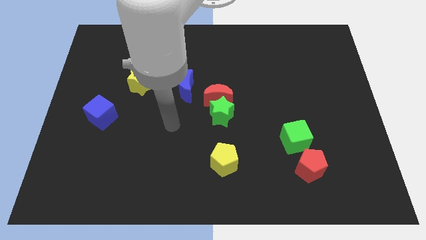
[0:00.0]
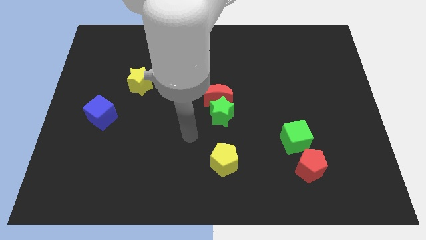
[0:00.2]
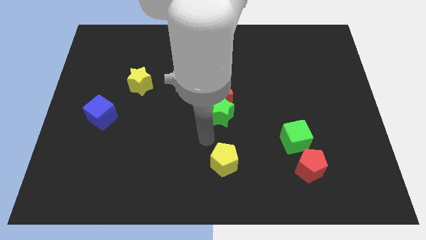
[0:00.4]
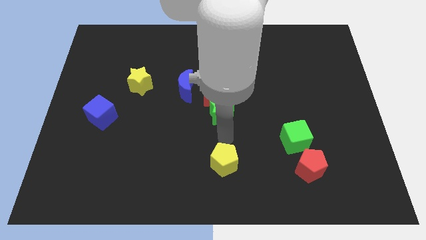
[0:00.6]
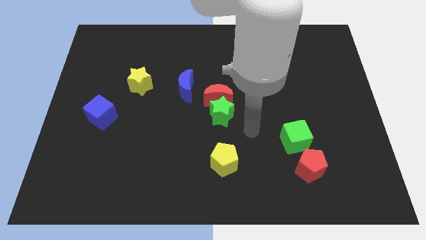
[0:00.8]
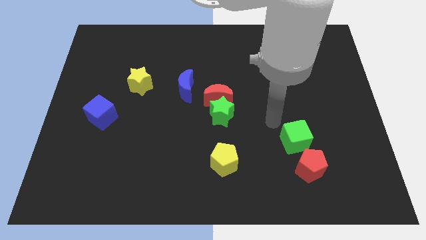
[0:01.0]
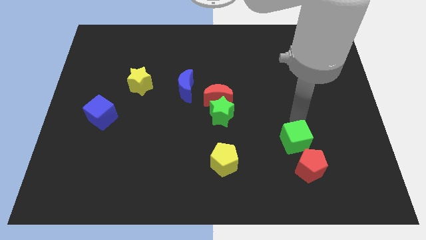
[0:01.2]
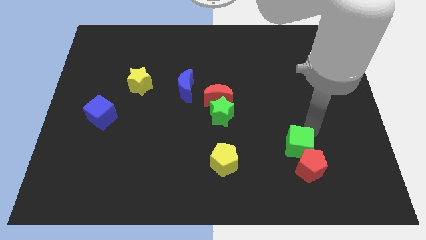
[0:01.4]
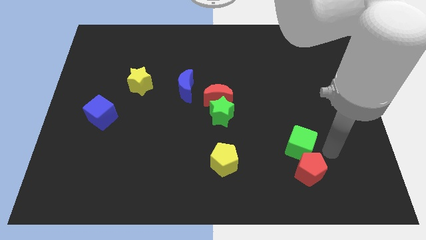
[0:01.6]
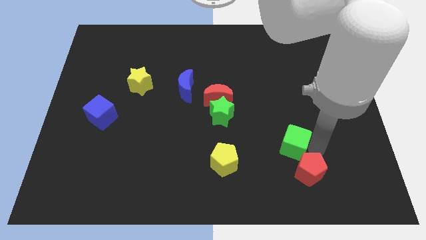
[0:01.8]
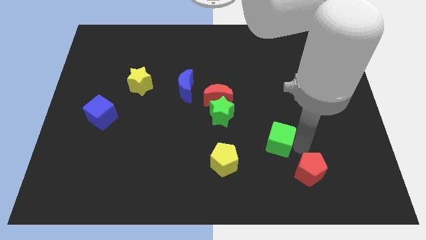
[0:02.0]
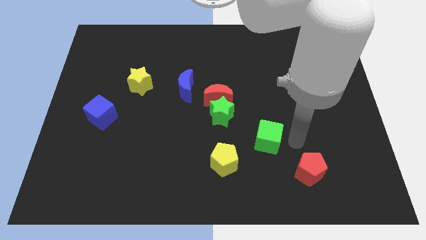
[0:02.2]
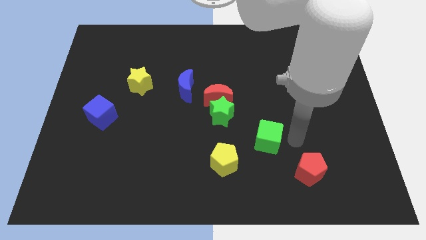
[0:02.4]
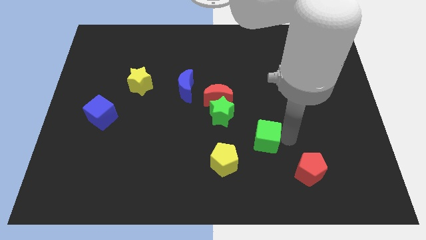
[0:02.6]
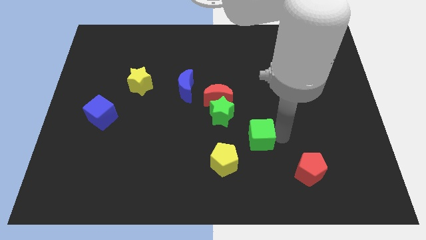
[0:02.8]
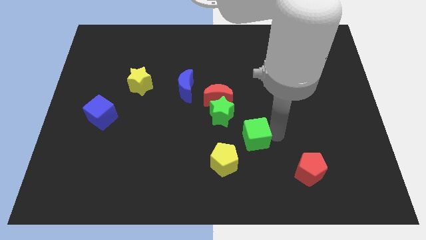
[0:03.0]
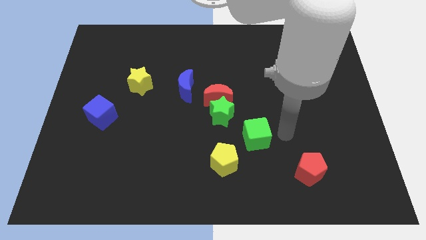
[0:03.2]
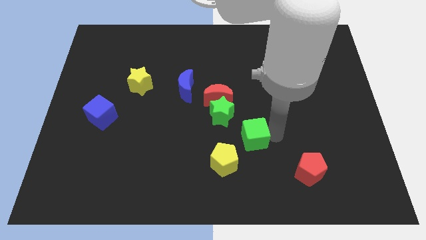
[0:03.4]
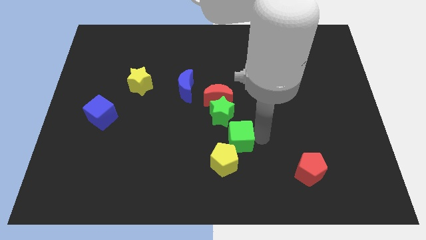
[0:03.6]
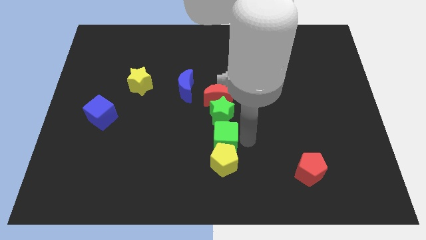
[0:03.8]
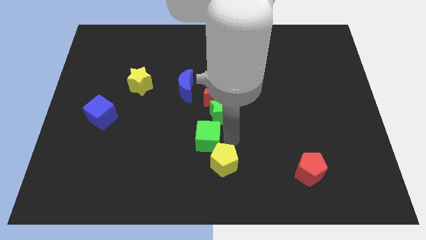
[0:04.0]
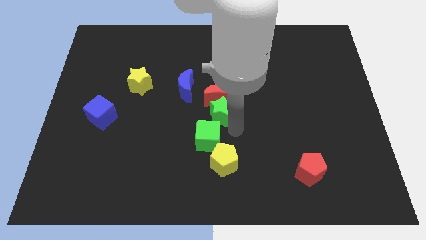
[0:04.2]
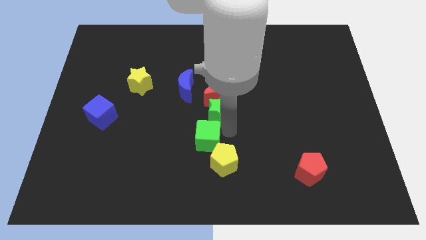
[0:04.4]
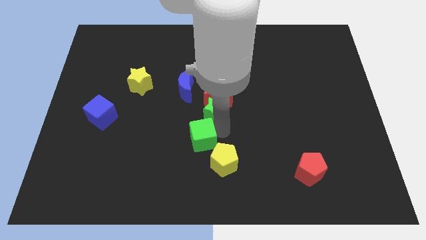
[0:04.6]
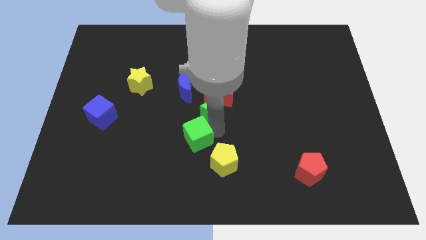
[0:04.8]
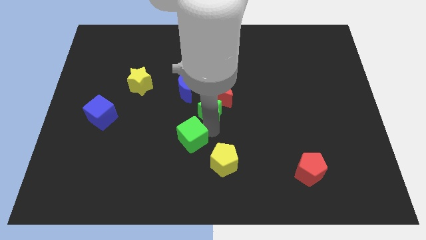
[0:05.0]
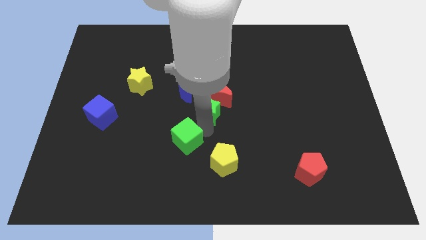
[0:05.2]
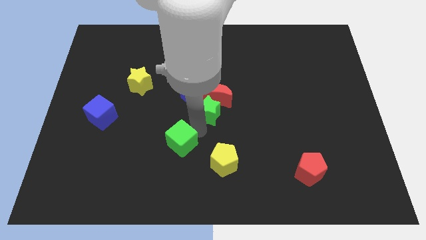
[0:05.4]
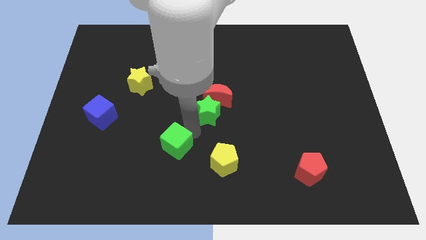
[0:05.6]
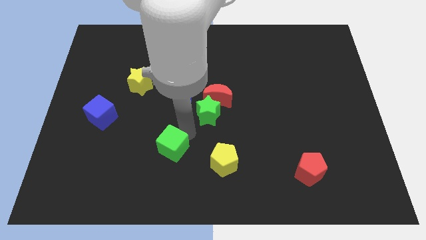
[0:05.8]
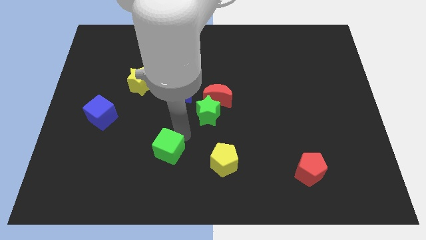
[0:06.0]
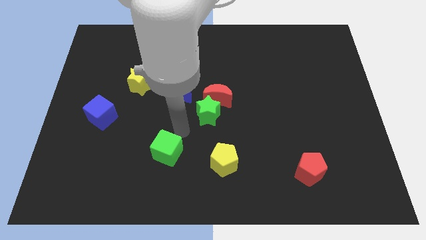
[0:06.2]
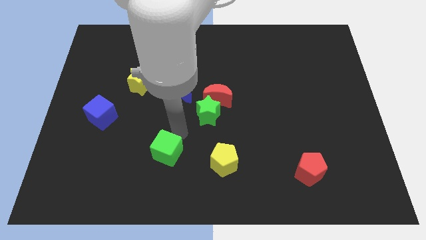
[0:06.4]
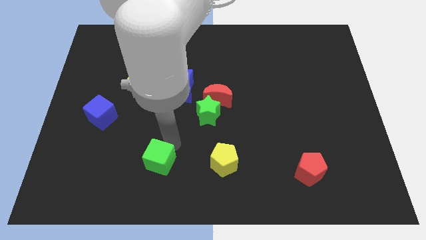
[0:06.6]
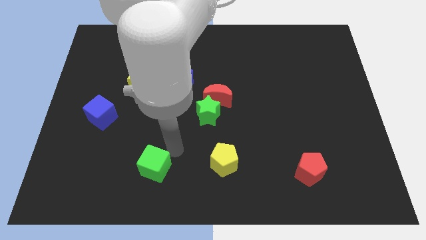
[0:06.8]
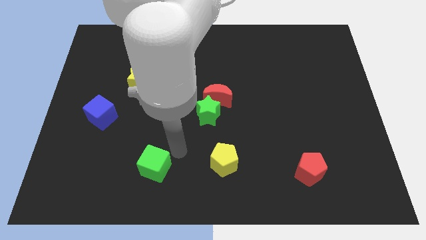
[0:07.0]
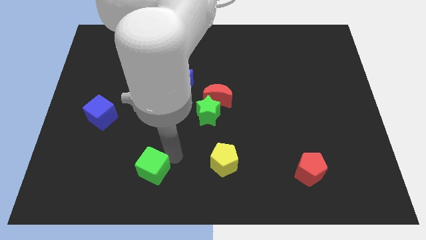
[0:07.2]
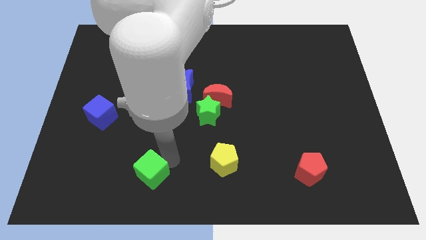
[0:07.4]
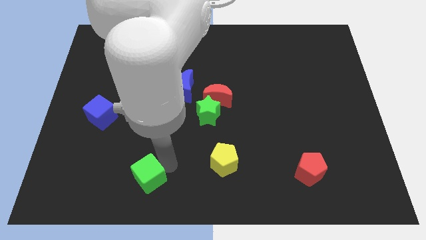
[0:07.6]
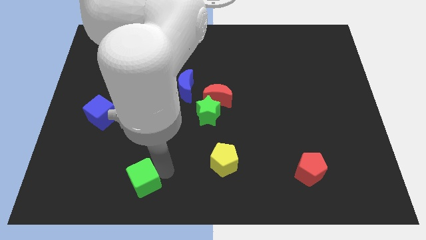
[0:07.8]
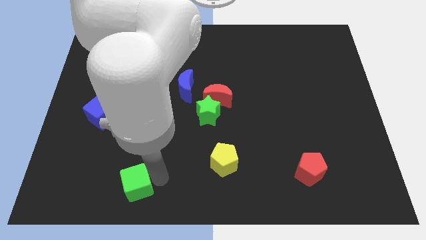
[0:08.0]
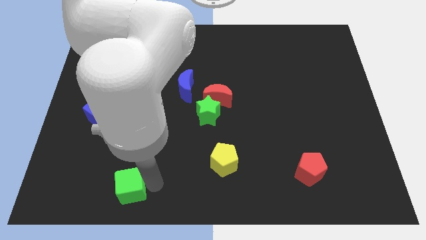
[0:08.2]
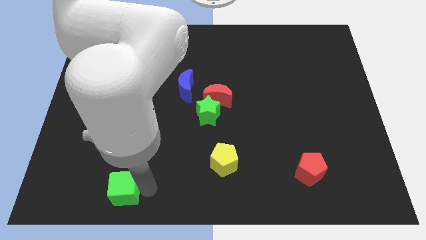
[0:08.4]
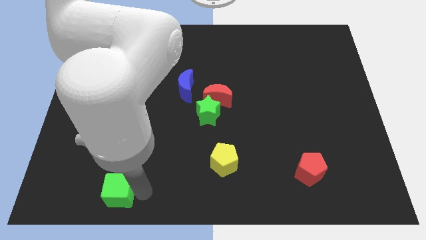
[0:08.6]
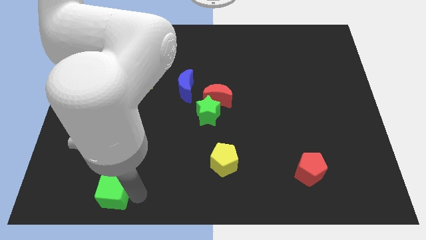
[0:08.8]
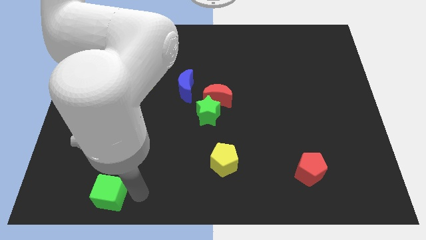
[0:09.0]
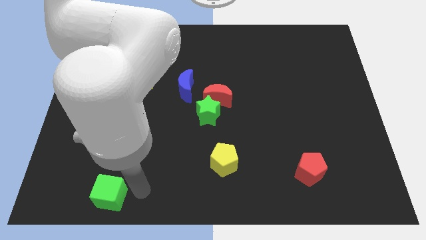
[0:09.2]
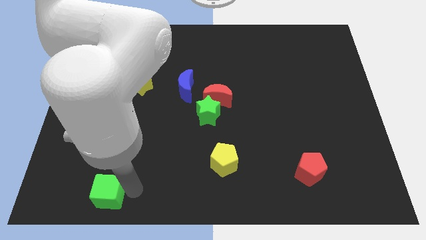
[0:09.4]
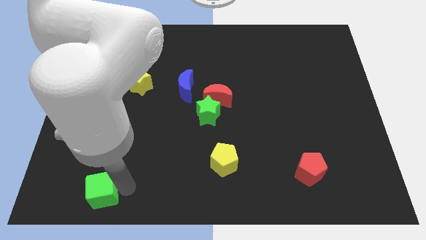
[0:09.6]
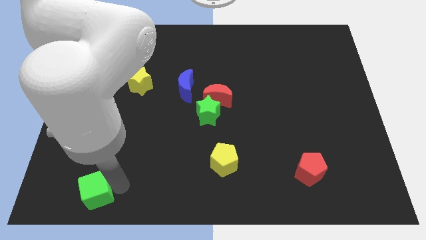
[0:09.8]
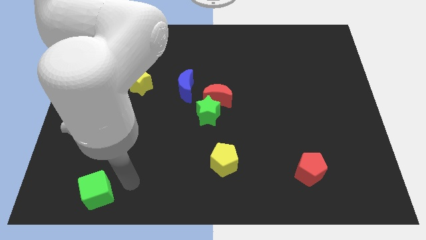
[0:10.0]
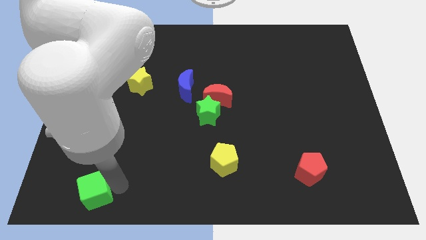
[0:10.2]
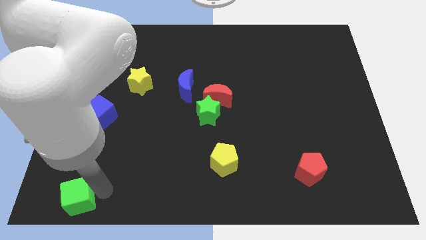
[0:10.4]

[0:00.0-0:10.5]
move the green cube to the bottom left
